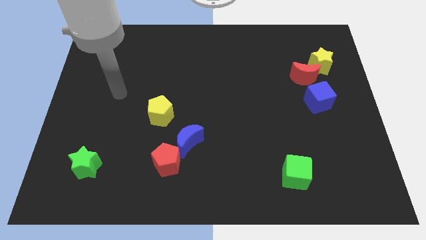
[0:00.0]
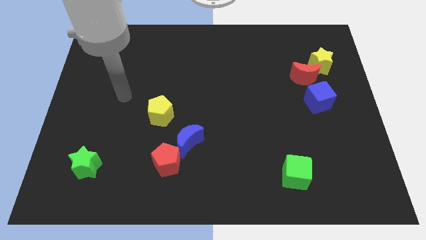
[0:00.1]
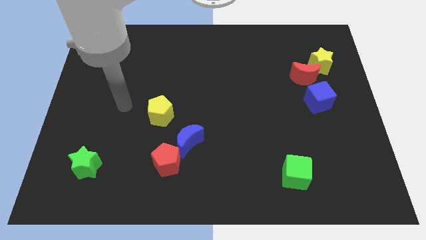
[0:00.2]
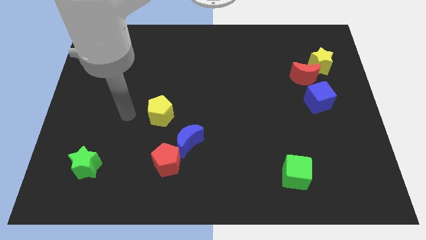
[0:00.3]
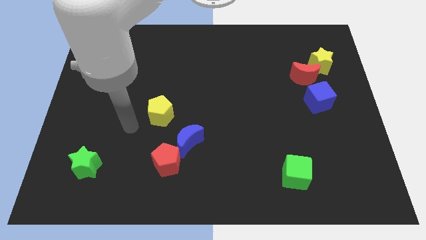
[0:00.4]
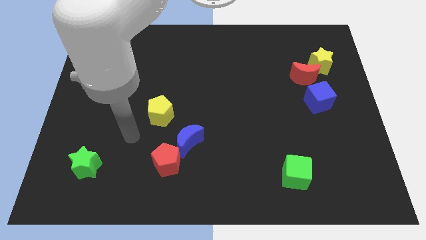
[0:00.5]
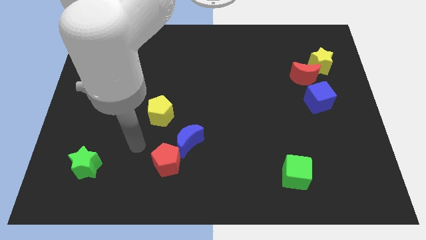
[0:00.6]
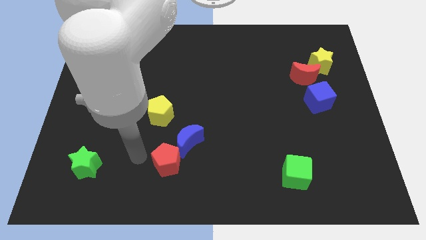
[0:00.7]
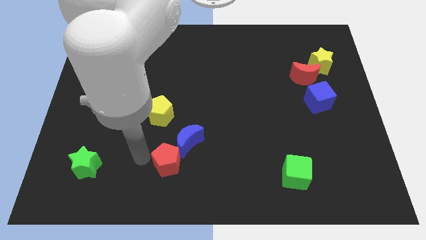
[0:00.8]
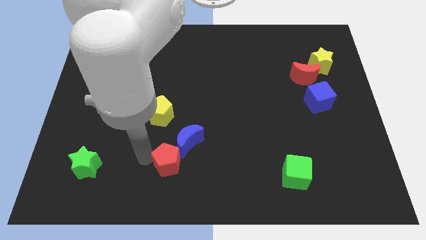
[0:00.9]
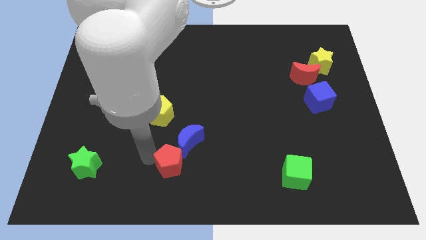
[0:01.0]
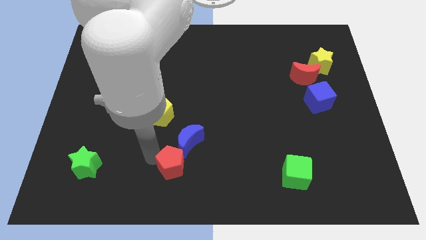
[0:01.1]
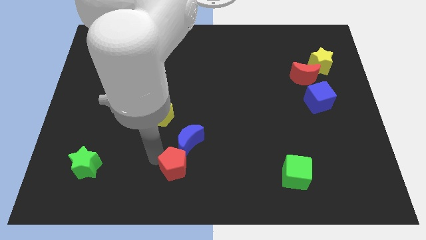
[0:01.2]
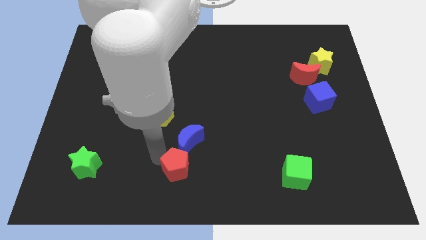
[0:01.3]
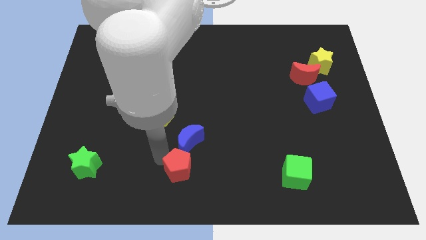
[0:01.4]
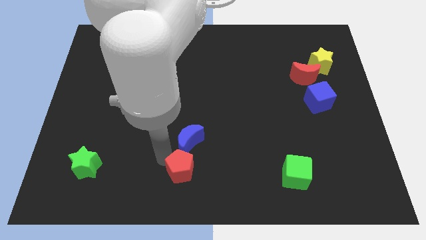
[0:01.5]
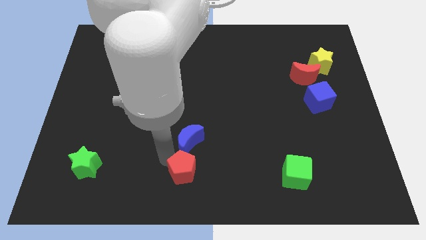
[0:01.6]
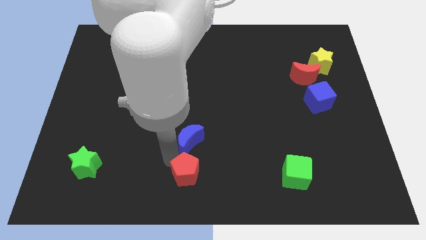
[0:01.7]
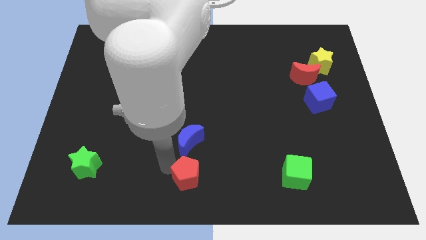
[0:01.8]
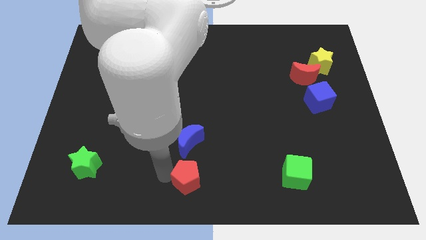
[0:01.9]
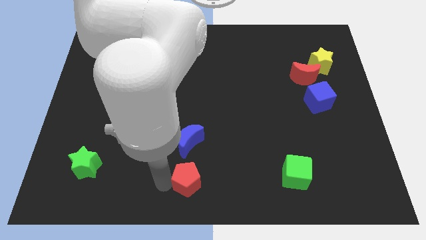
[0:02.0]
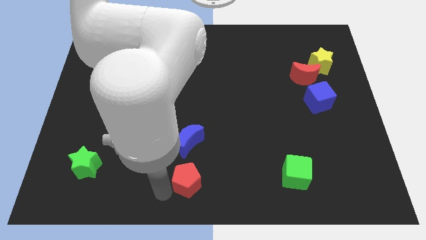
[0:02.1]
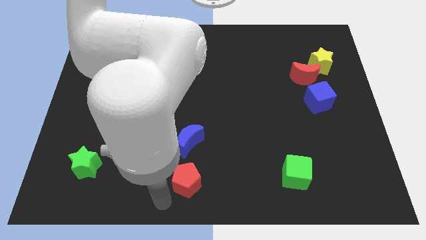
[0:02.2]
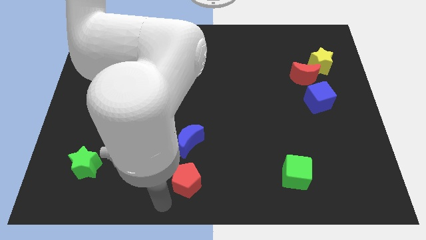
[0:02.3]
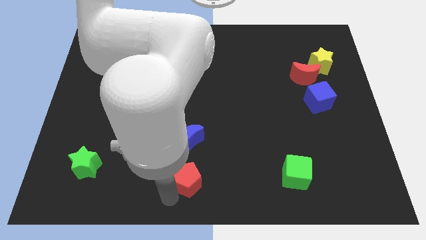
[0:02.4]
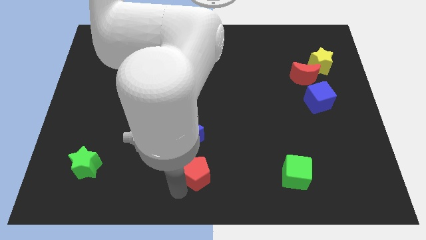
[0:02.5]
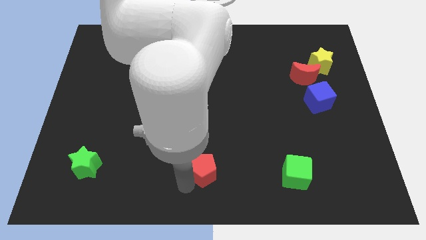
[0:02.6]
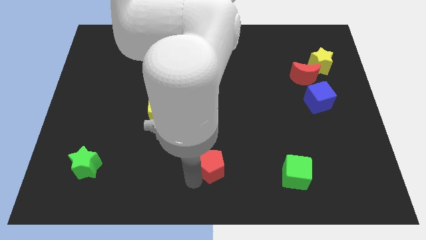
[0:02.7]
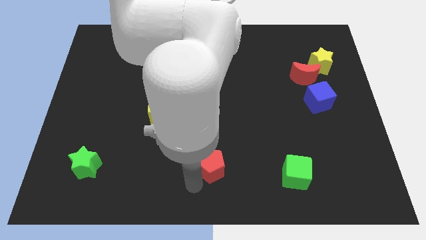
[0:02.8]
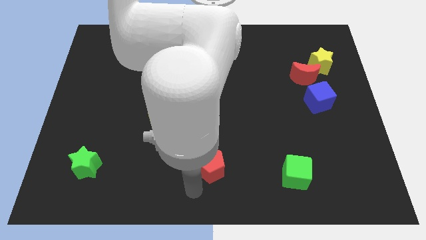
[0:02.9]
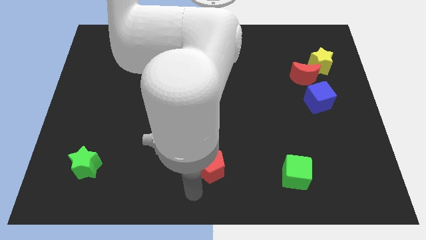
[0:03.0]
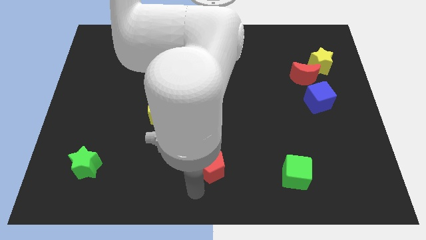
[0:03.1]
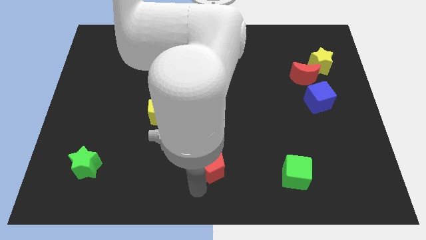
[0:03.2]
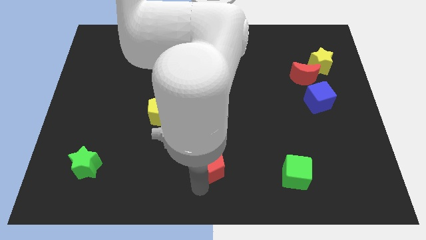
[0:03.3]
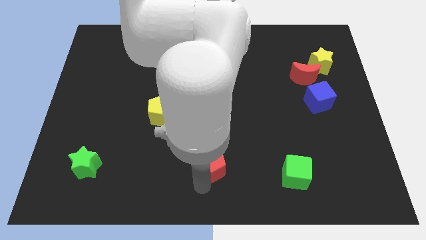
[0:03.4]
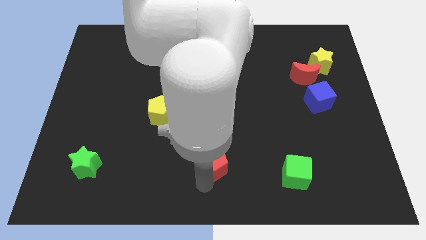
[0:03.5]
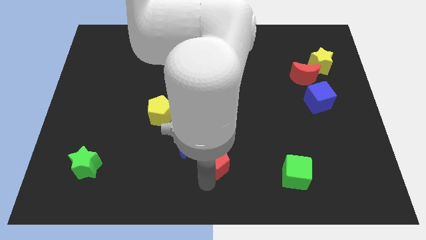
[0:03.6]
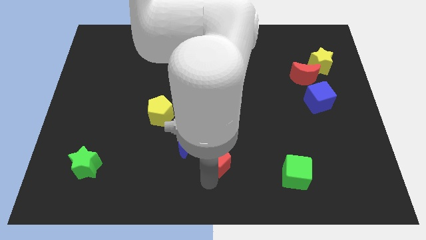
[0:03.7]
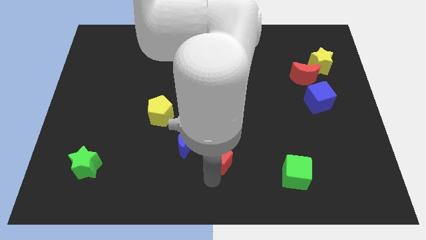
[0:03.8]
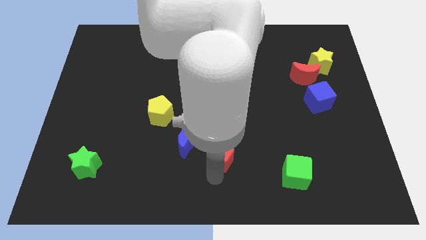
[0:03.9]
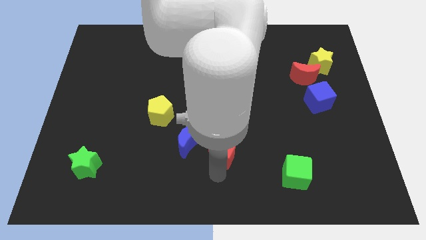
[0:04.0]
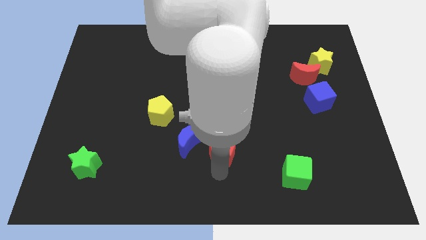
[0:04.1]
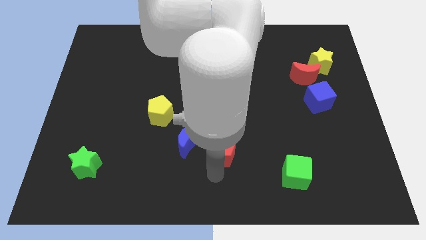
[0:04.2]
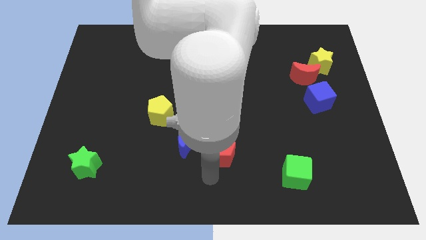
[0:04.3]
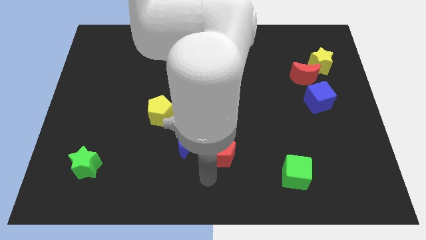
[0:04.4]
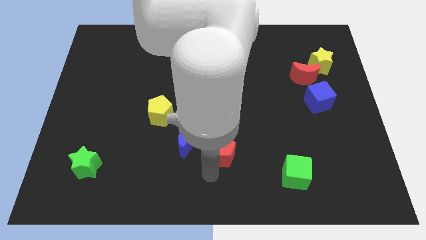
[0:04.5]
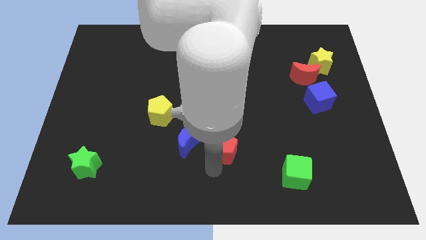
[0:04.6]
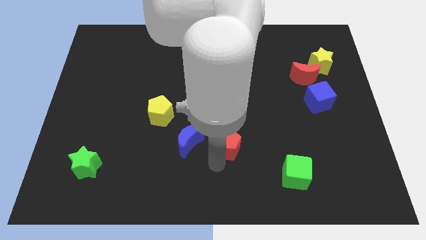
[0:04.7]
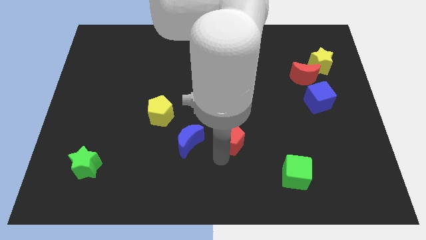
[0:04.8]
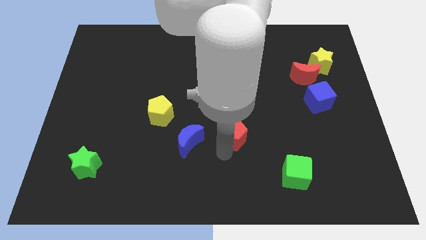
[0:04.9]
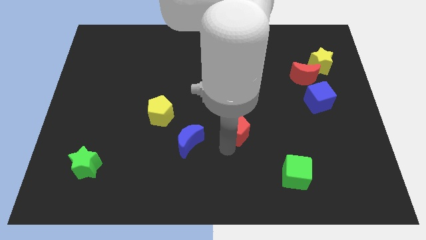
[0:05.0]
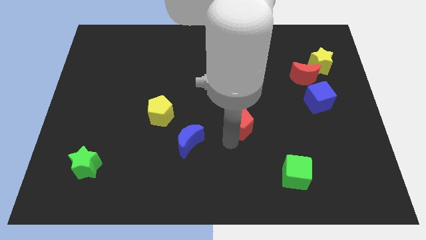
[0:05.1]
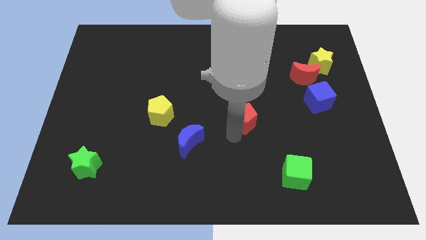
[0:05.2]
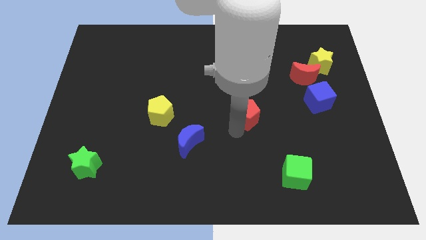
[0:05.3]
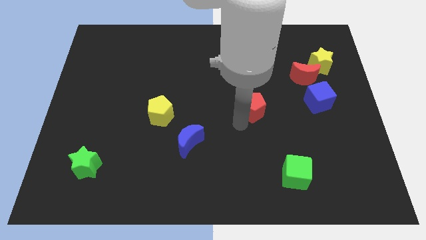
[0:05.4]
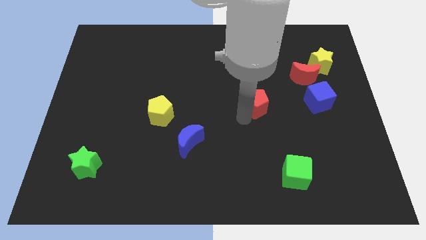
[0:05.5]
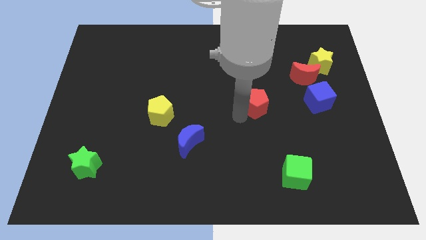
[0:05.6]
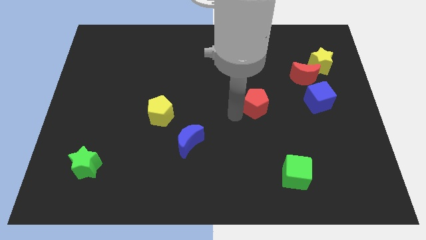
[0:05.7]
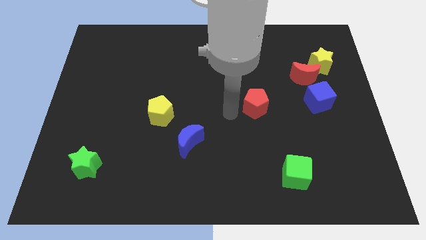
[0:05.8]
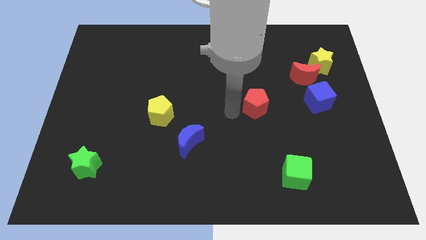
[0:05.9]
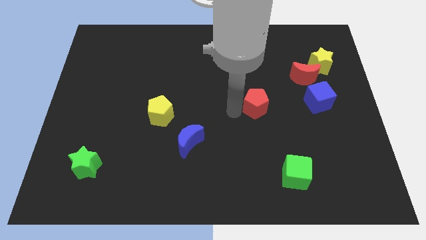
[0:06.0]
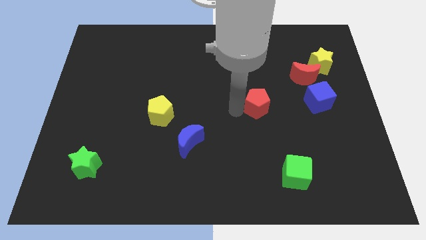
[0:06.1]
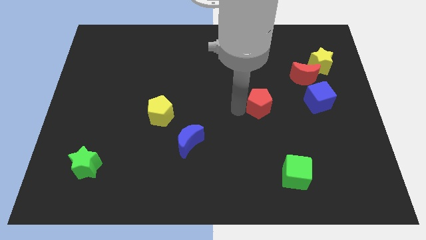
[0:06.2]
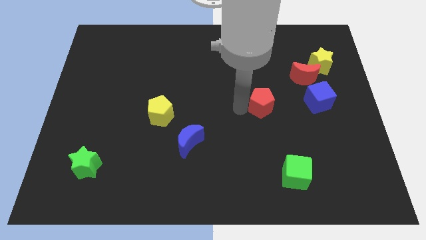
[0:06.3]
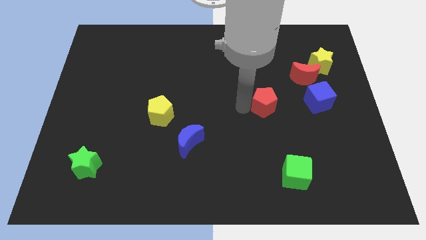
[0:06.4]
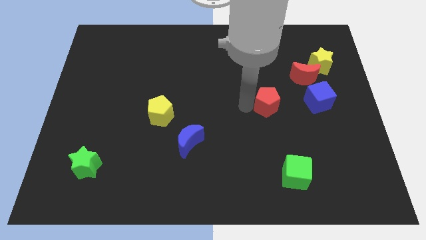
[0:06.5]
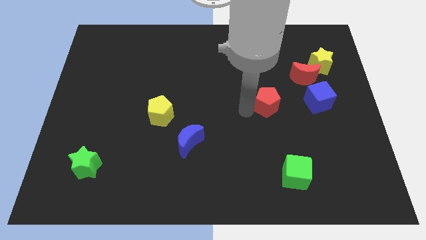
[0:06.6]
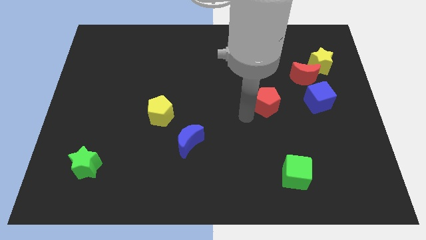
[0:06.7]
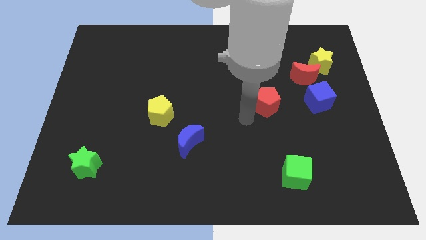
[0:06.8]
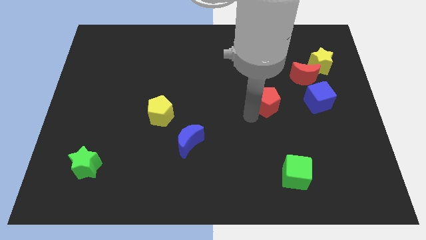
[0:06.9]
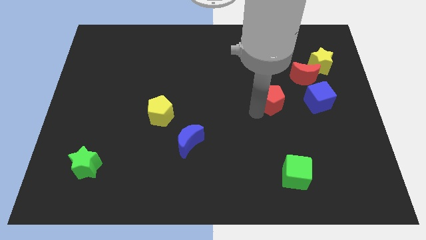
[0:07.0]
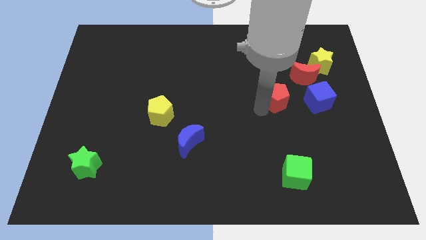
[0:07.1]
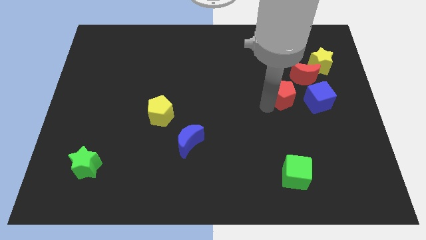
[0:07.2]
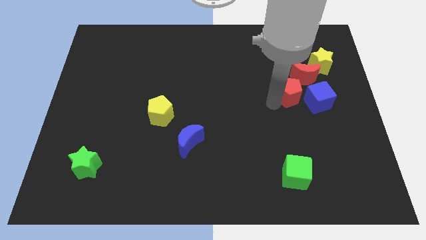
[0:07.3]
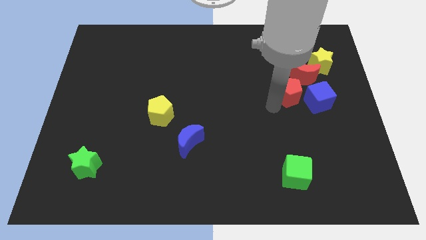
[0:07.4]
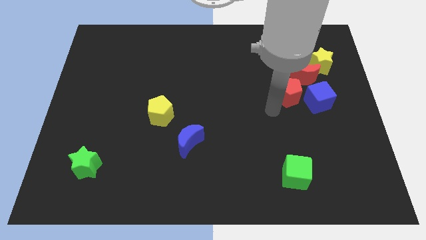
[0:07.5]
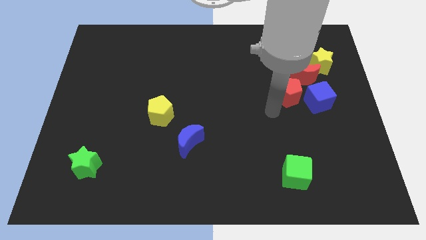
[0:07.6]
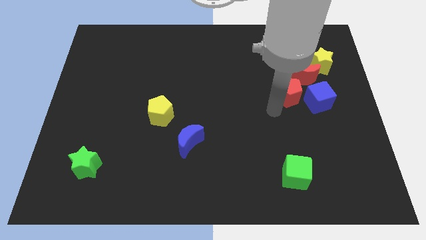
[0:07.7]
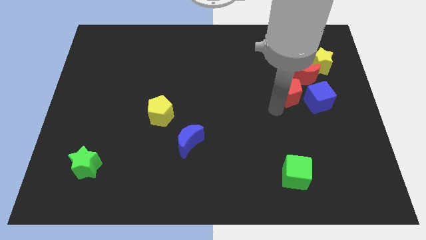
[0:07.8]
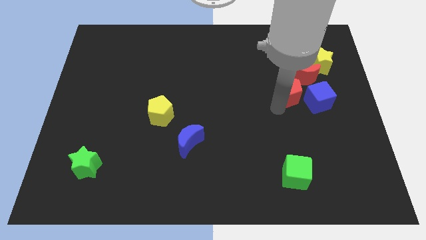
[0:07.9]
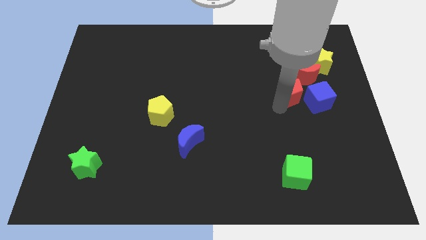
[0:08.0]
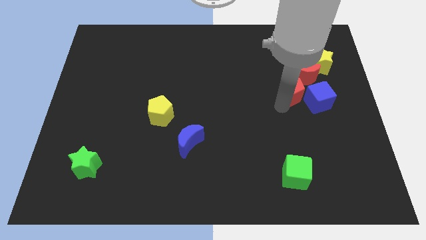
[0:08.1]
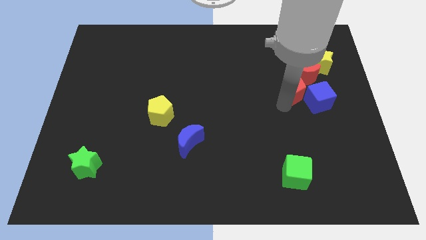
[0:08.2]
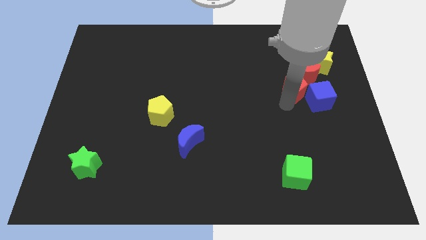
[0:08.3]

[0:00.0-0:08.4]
move the red pentagon to the red moon
